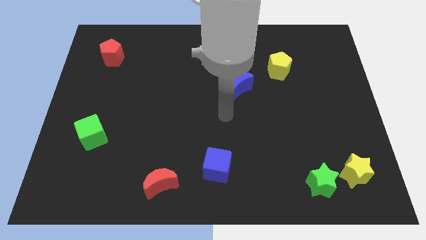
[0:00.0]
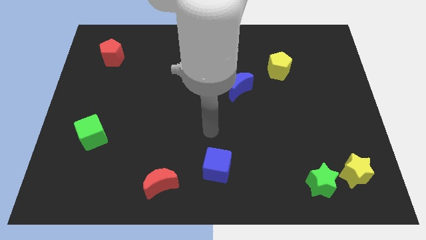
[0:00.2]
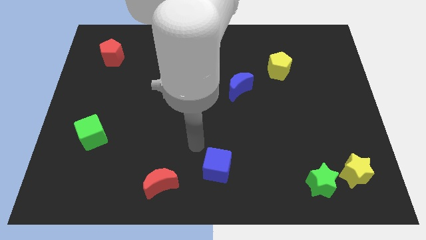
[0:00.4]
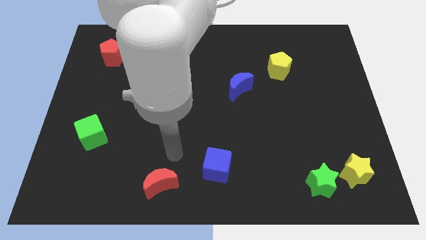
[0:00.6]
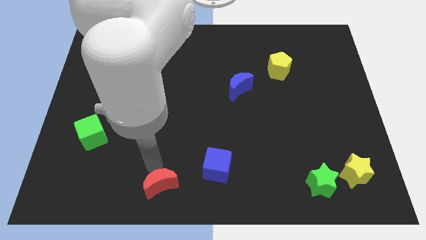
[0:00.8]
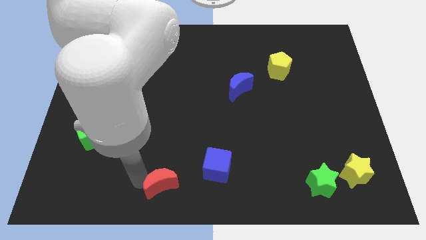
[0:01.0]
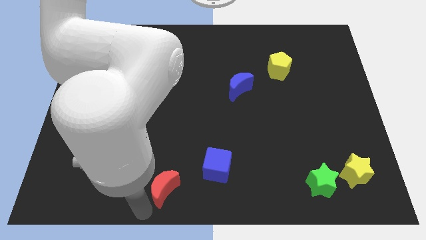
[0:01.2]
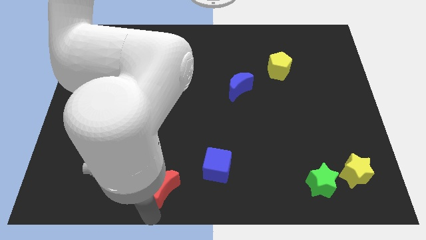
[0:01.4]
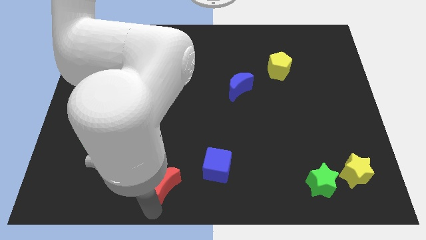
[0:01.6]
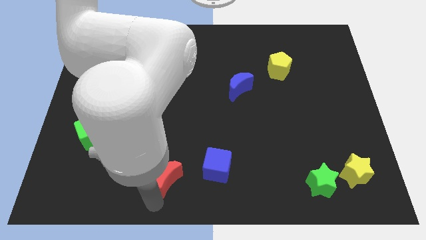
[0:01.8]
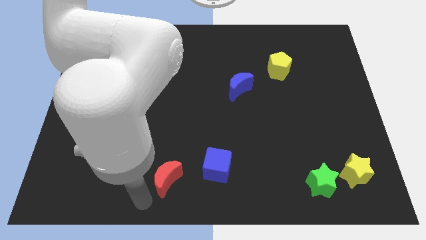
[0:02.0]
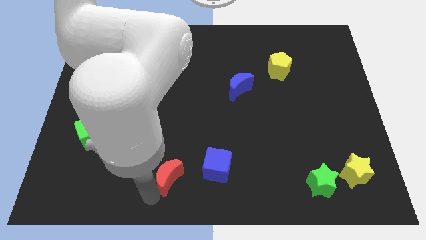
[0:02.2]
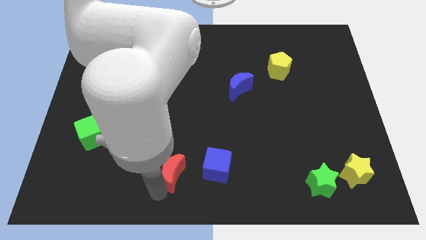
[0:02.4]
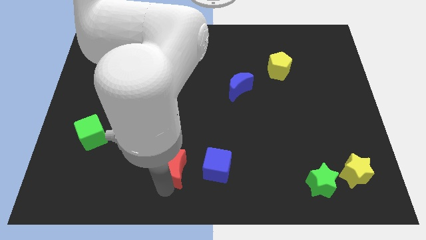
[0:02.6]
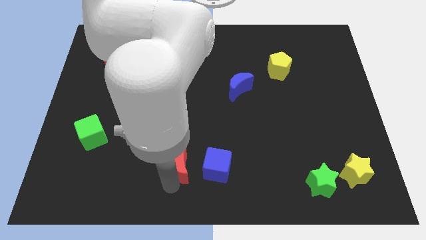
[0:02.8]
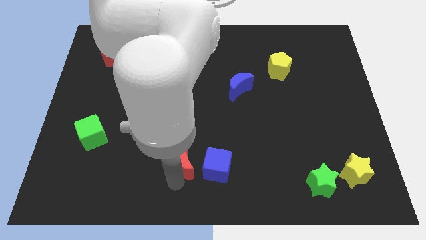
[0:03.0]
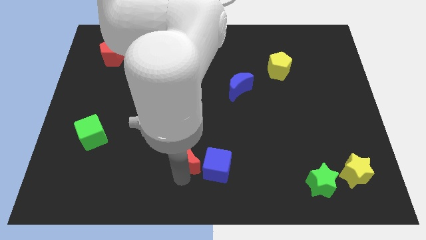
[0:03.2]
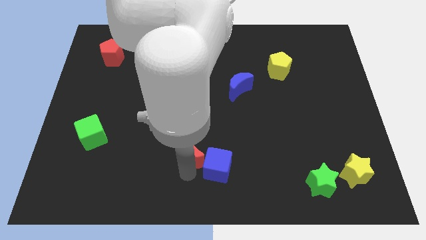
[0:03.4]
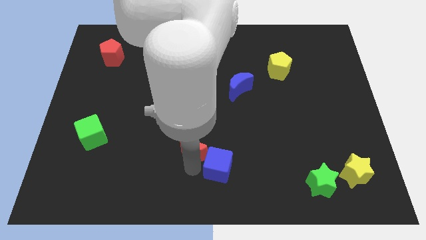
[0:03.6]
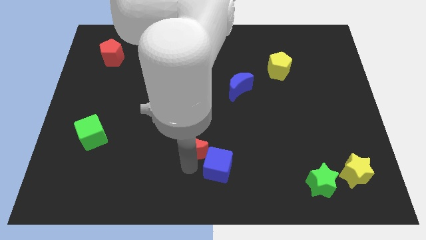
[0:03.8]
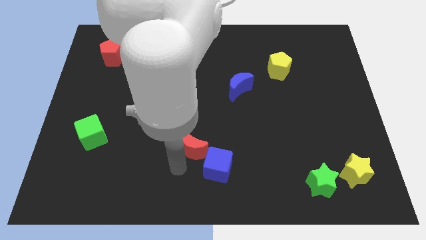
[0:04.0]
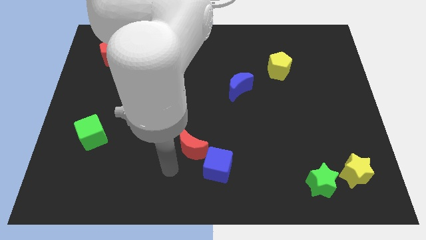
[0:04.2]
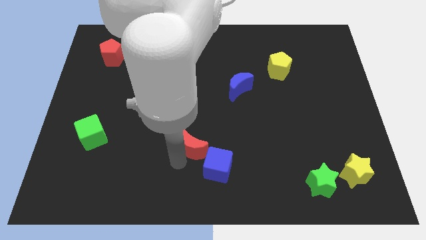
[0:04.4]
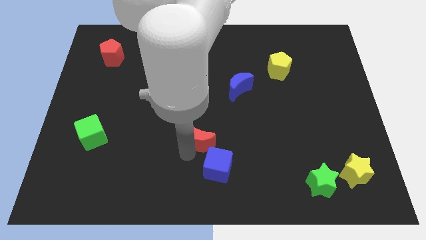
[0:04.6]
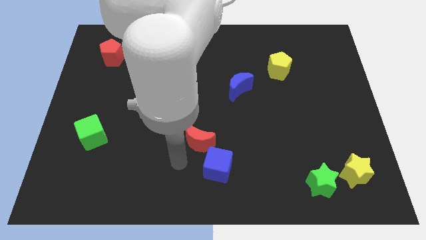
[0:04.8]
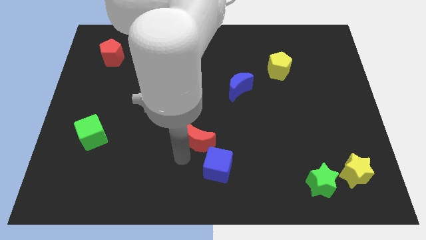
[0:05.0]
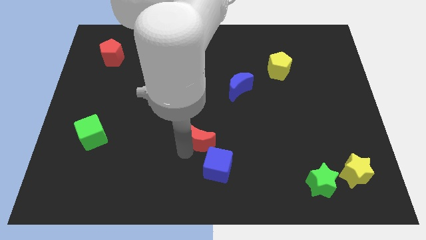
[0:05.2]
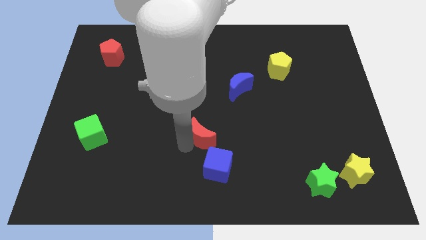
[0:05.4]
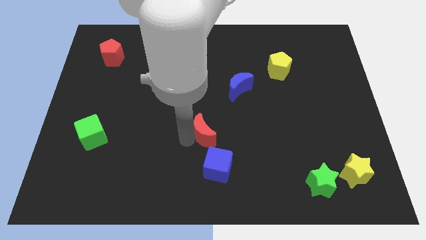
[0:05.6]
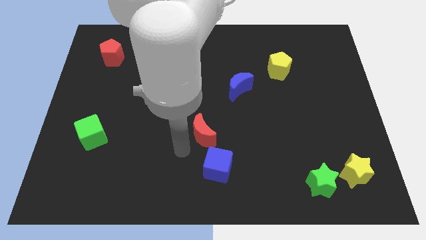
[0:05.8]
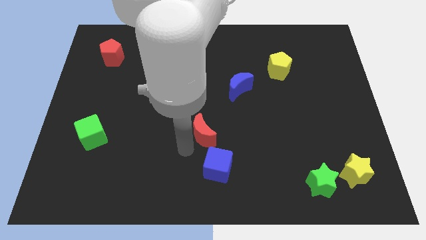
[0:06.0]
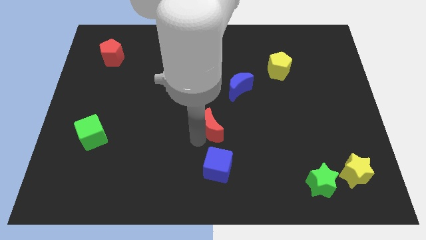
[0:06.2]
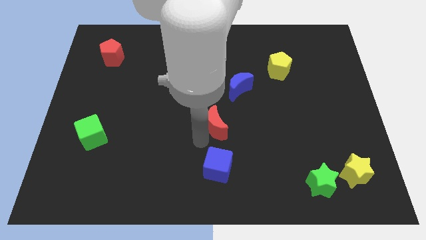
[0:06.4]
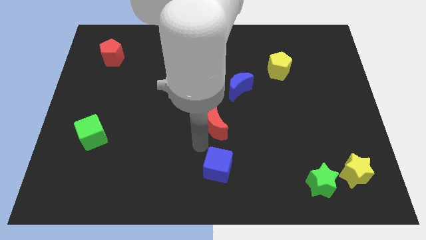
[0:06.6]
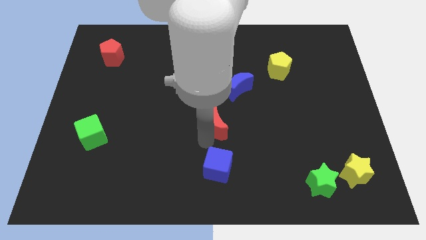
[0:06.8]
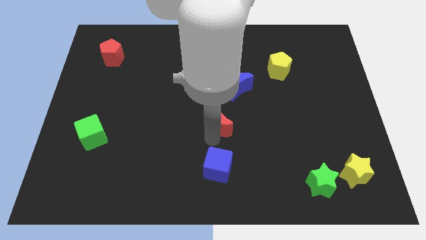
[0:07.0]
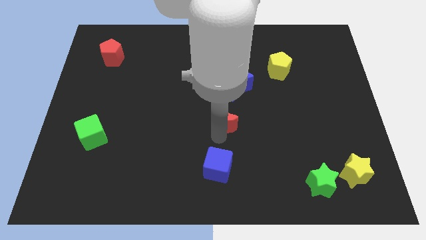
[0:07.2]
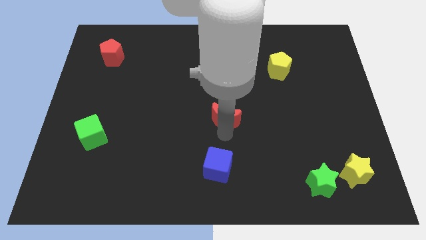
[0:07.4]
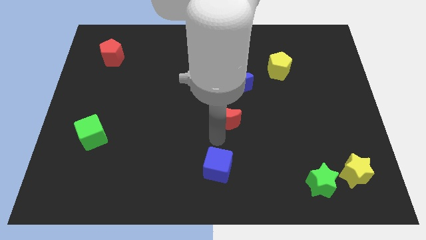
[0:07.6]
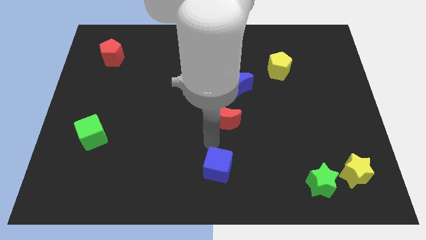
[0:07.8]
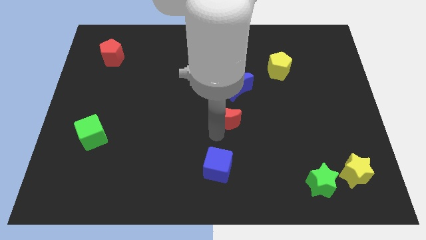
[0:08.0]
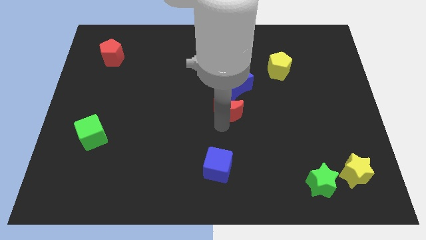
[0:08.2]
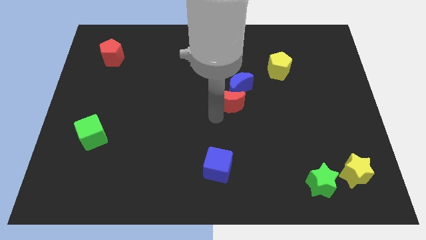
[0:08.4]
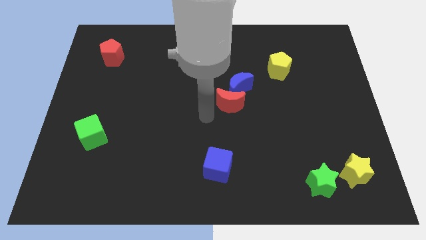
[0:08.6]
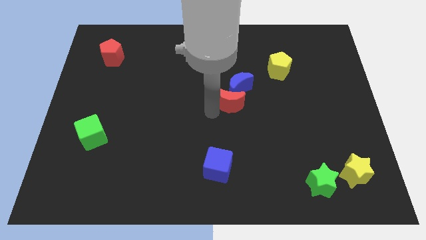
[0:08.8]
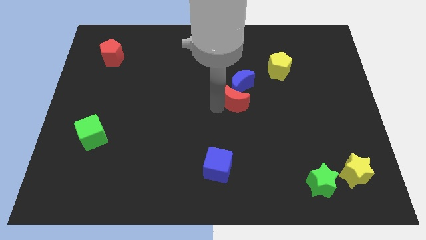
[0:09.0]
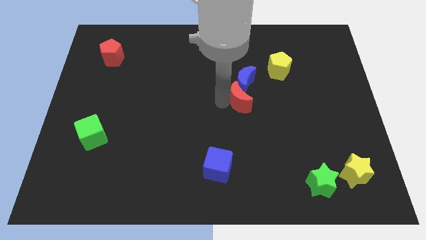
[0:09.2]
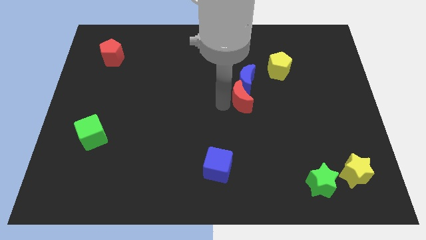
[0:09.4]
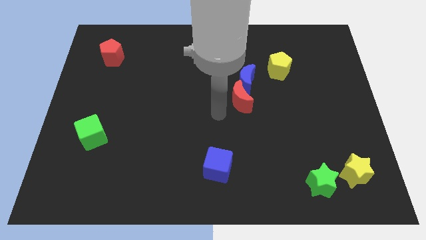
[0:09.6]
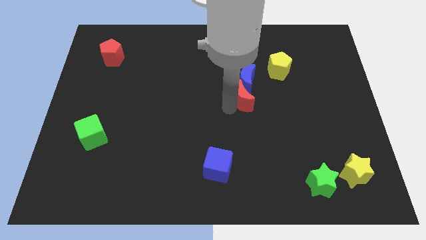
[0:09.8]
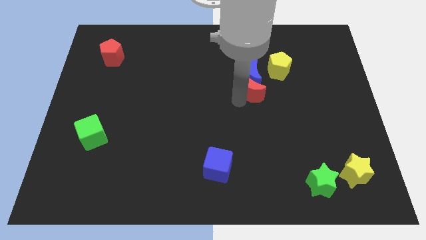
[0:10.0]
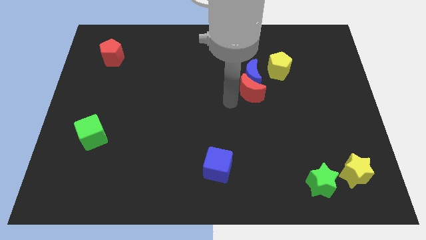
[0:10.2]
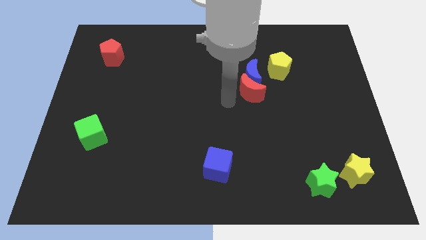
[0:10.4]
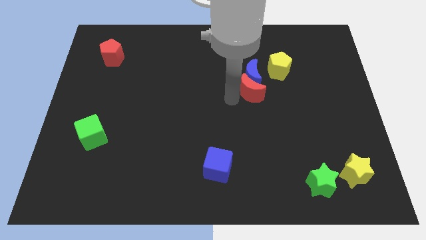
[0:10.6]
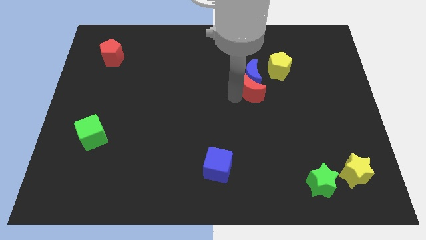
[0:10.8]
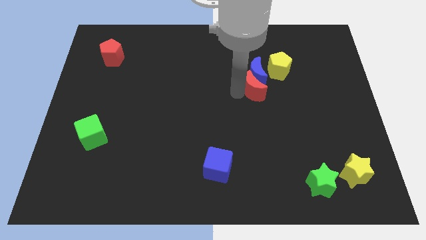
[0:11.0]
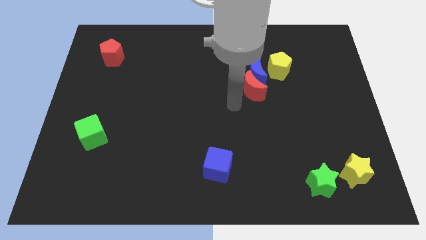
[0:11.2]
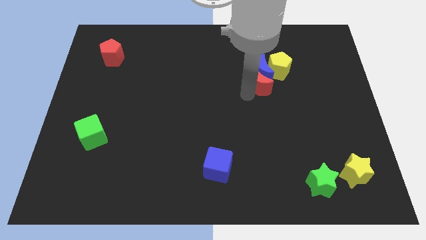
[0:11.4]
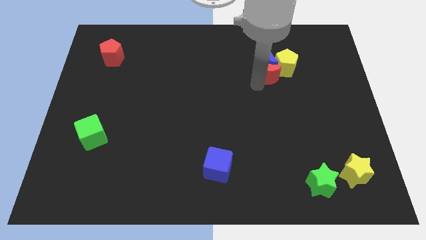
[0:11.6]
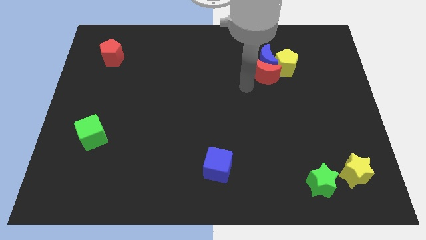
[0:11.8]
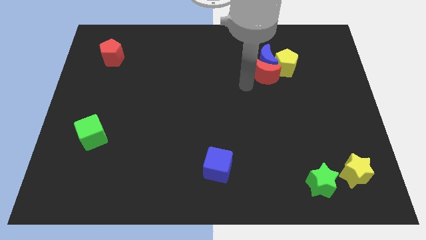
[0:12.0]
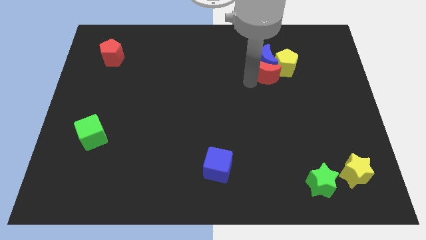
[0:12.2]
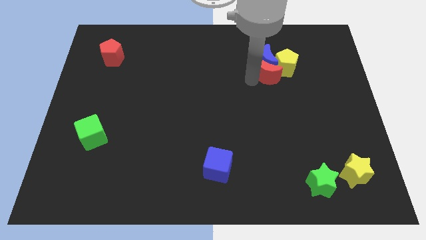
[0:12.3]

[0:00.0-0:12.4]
put the red moon towards the yellow pentagon
